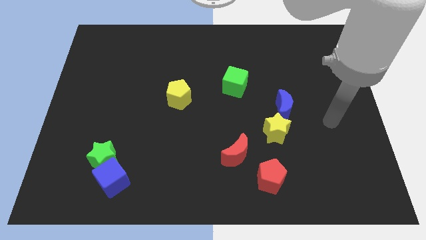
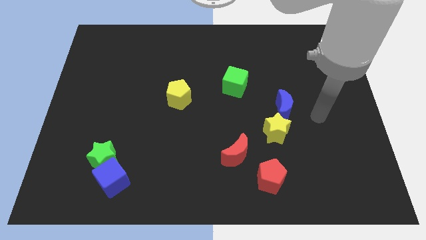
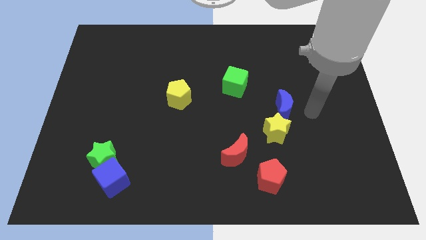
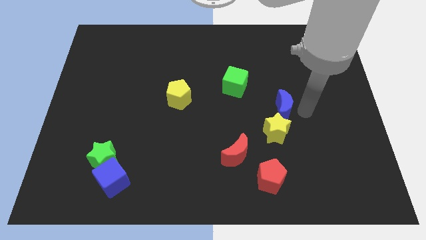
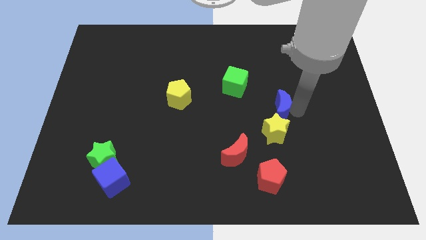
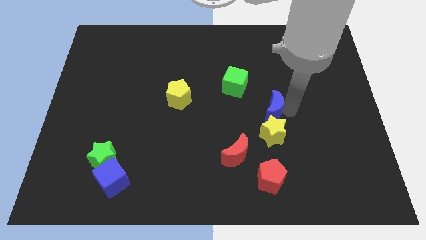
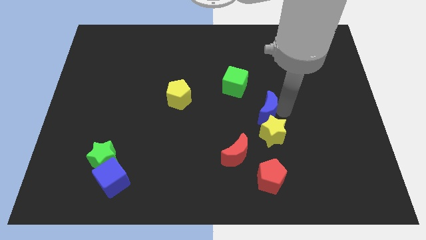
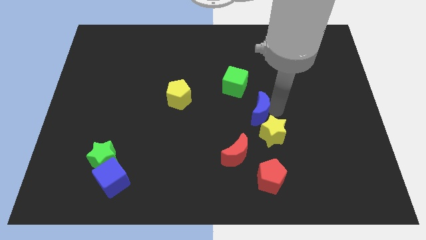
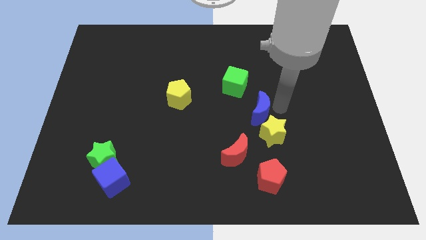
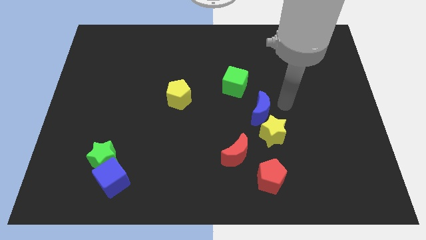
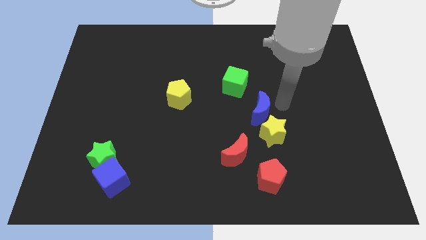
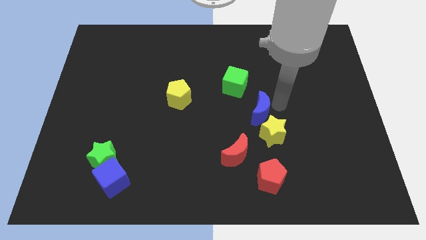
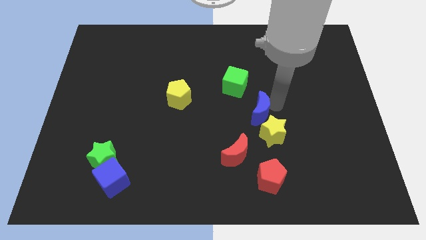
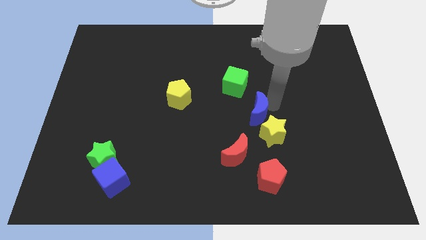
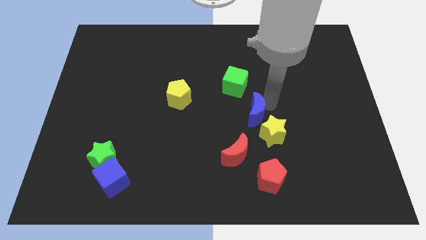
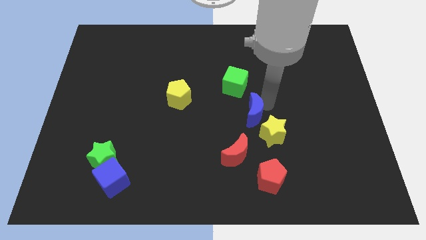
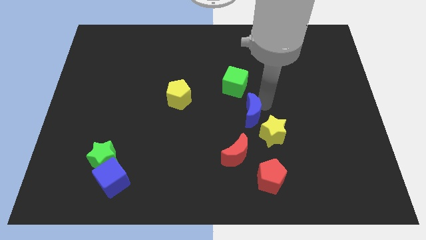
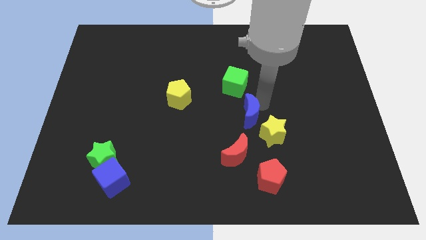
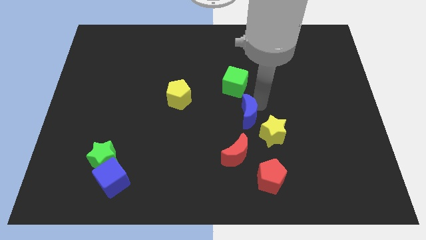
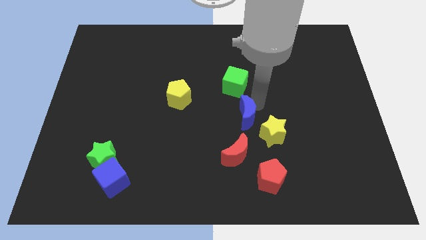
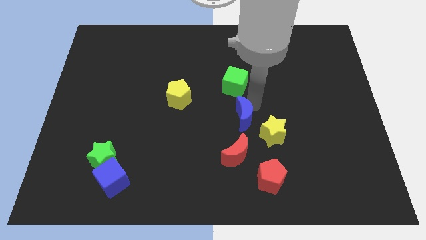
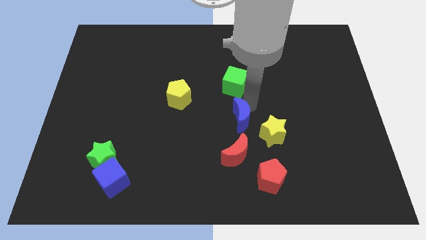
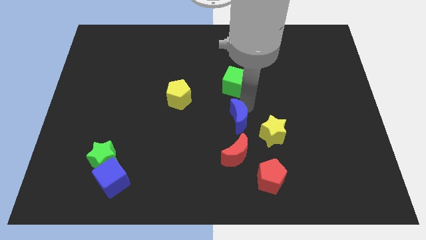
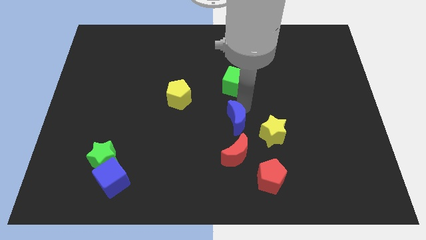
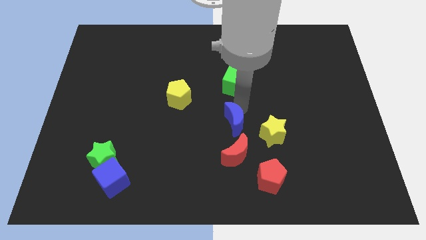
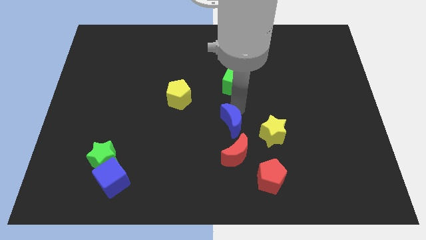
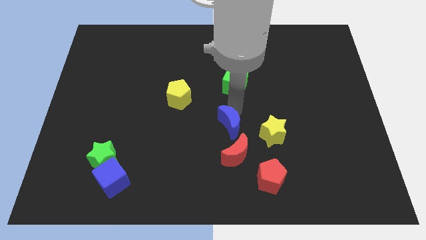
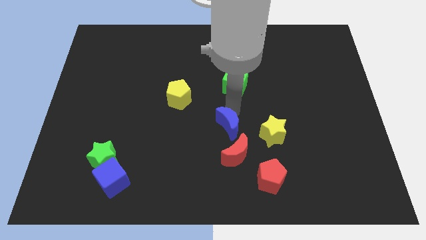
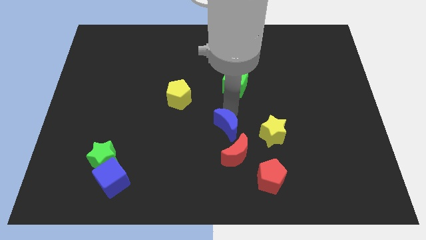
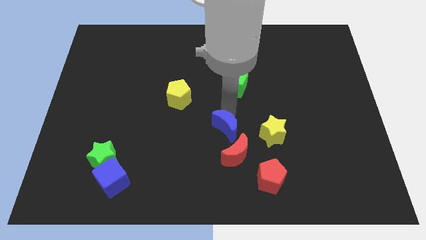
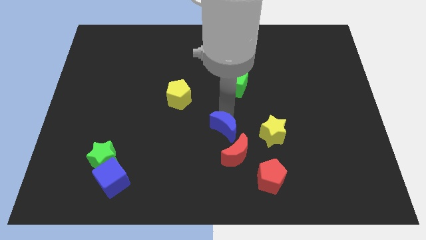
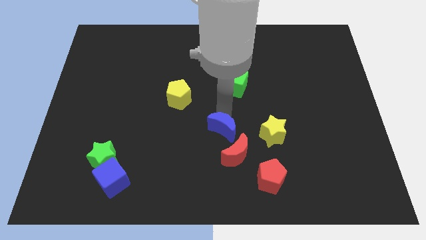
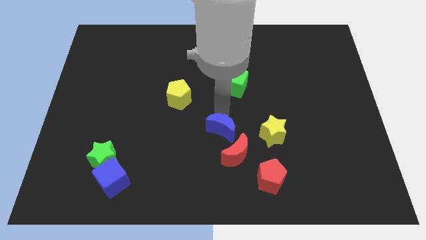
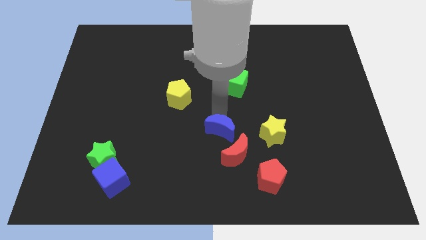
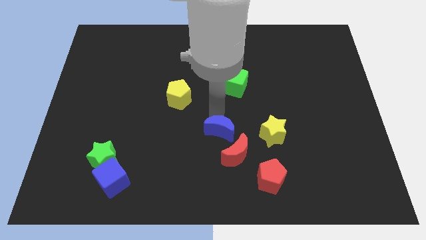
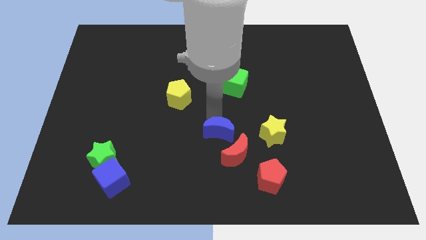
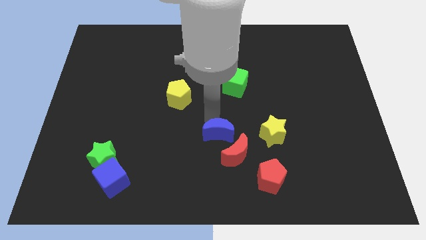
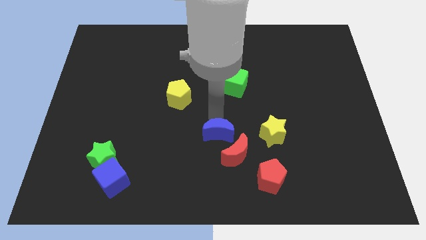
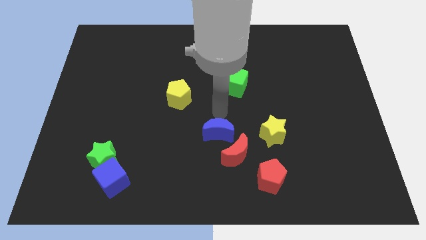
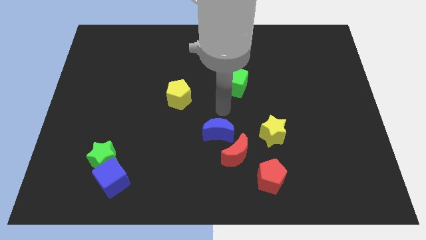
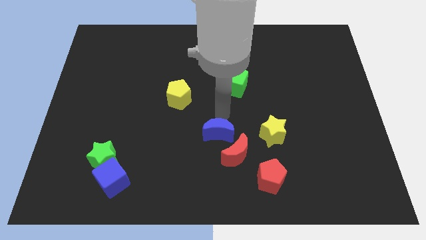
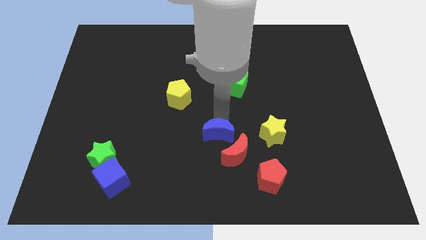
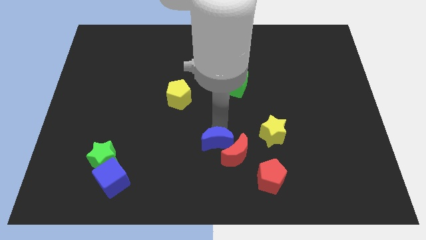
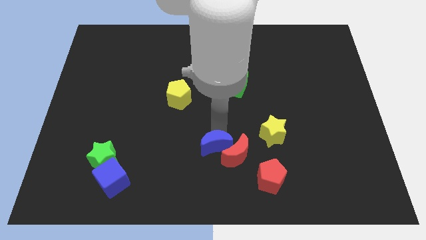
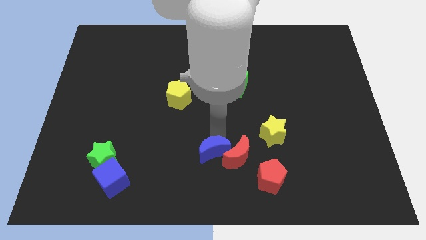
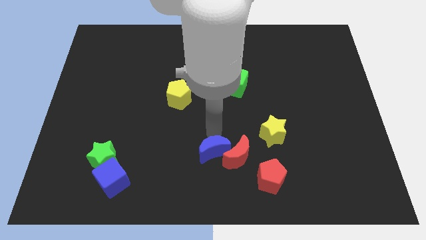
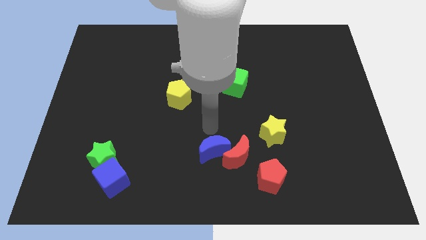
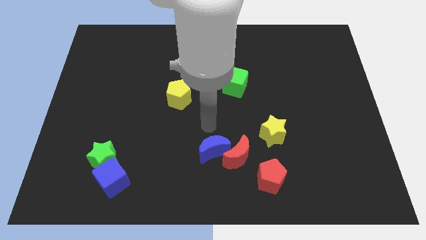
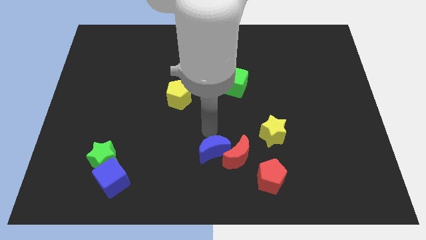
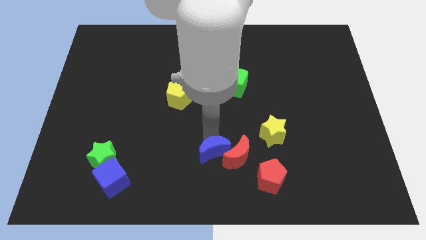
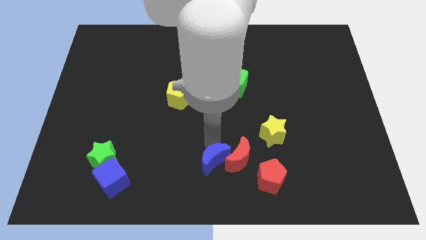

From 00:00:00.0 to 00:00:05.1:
move the blue moon to the bottom side

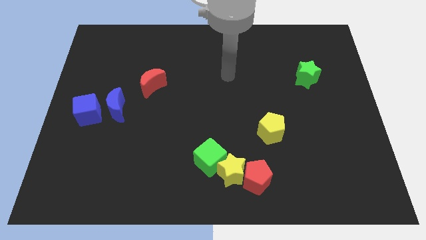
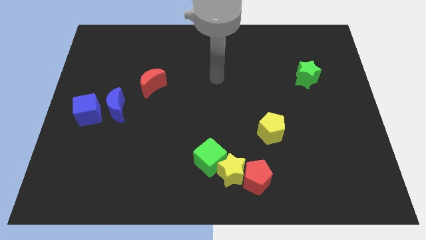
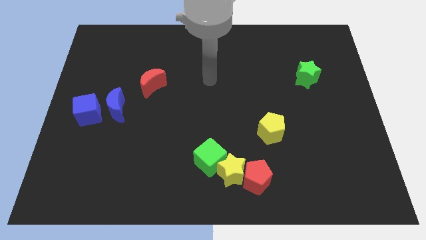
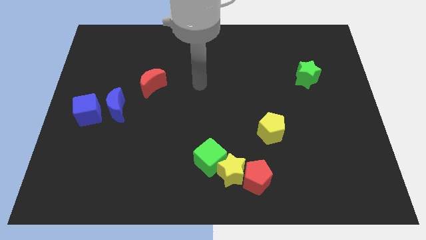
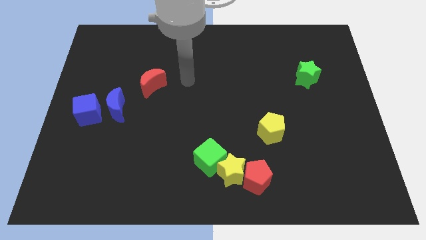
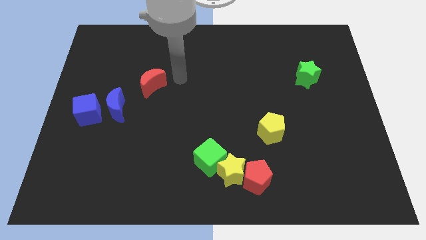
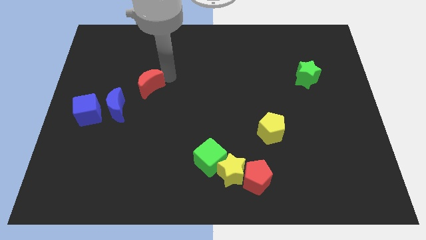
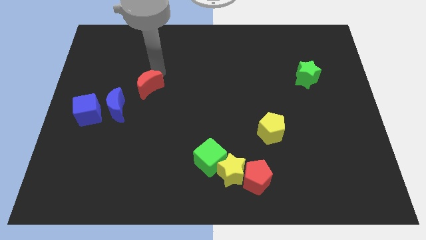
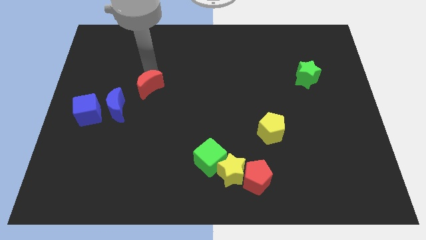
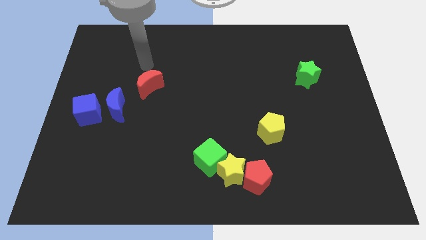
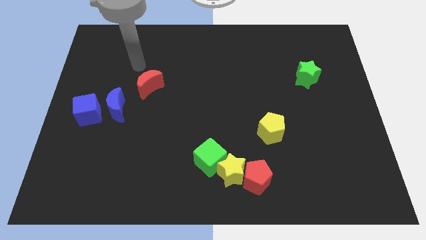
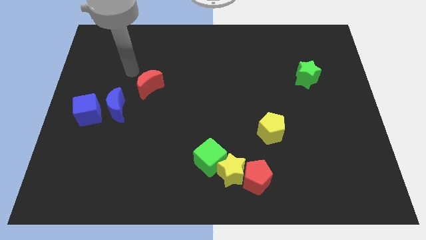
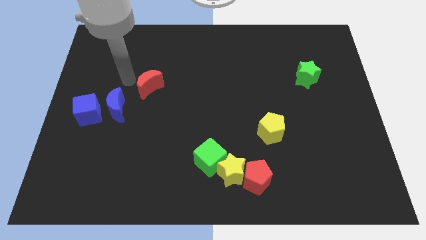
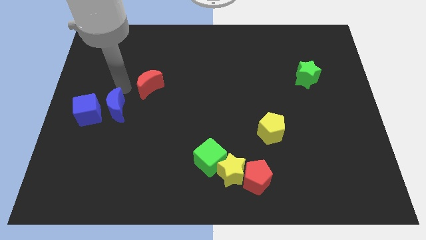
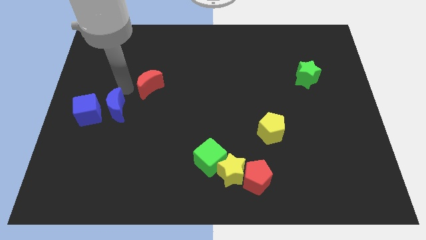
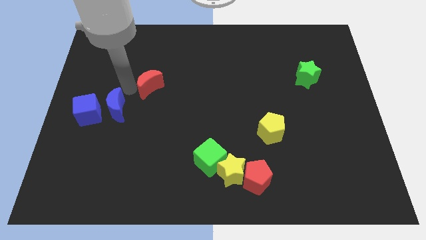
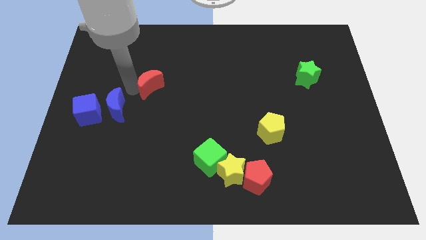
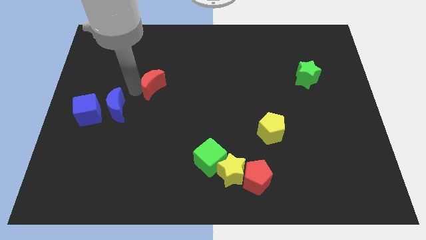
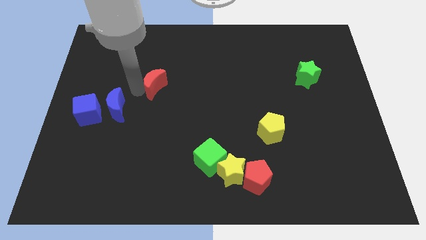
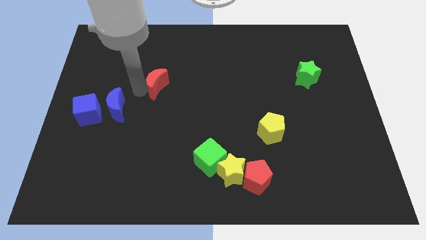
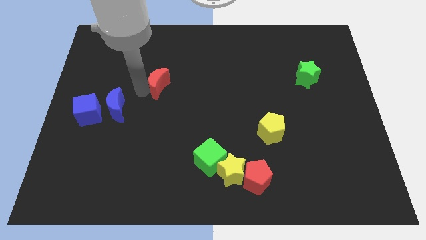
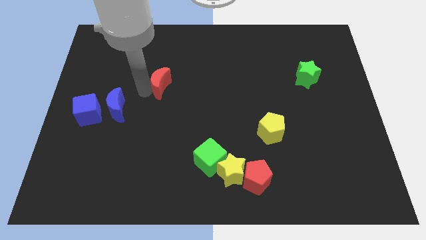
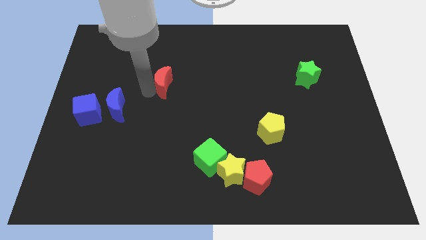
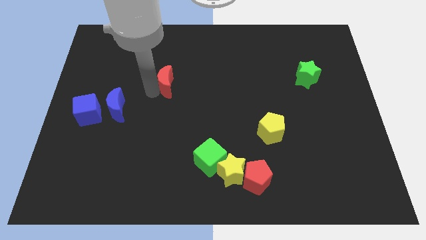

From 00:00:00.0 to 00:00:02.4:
put the red moon to the middle of the board
